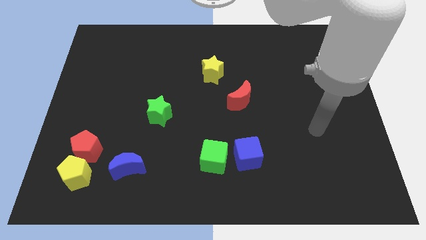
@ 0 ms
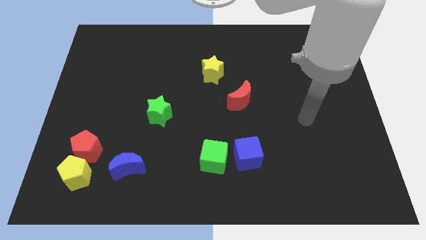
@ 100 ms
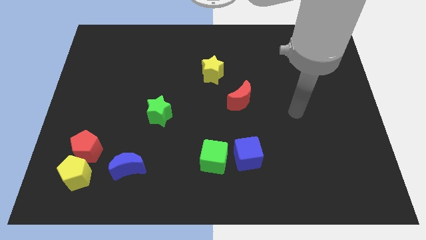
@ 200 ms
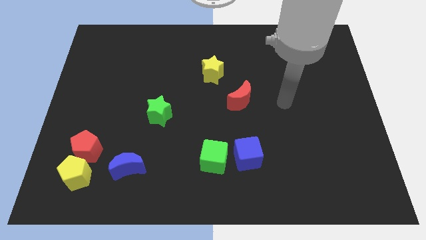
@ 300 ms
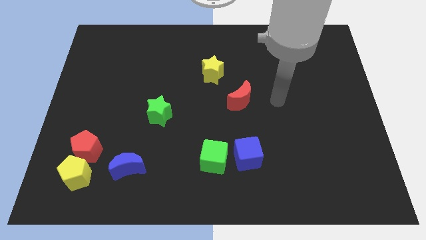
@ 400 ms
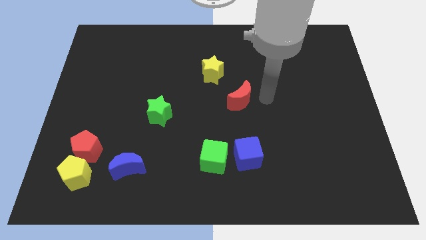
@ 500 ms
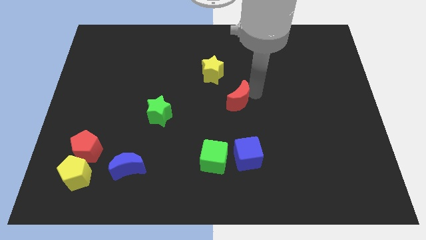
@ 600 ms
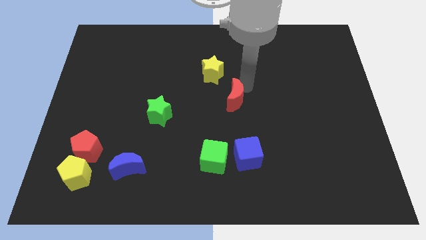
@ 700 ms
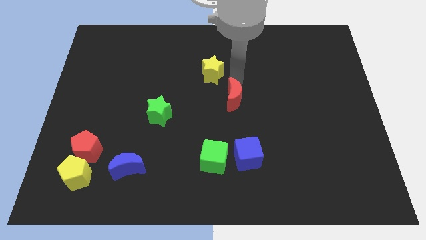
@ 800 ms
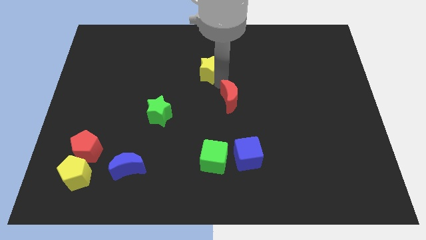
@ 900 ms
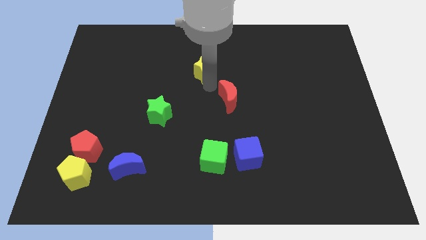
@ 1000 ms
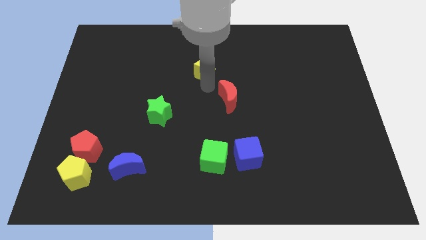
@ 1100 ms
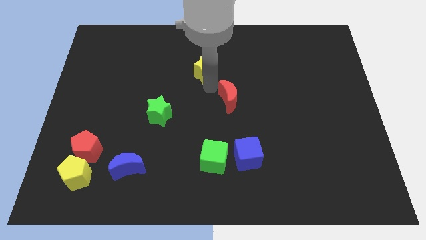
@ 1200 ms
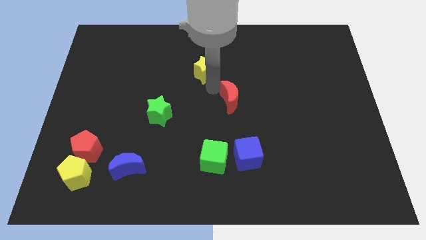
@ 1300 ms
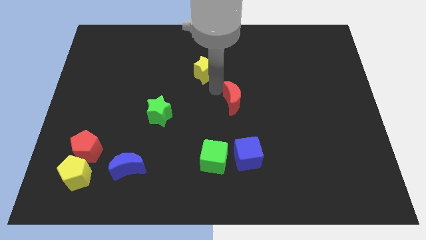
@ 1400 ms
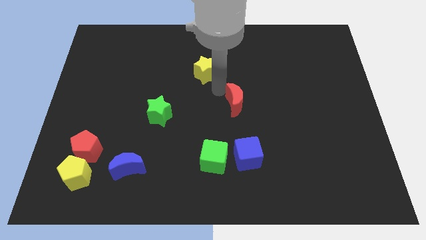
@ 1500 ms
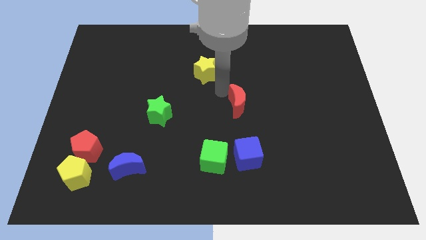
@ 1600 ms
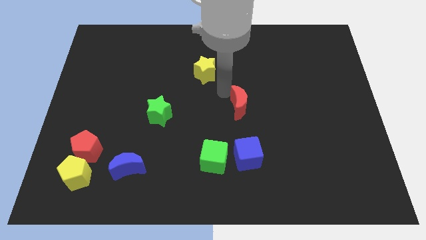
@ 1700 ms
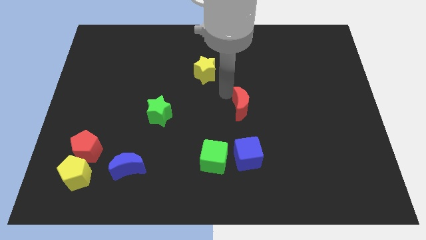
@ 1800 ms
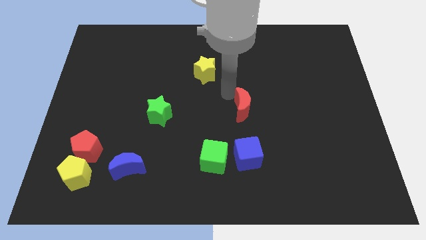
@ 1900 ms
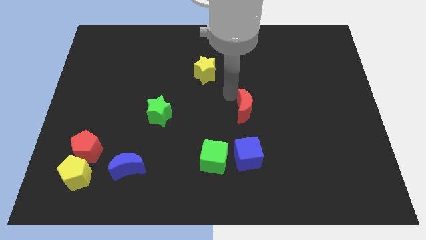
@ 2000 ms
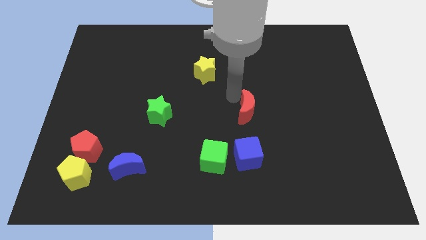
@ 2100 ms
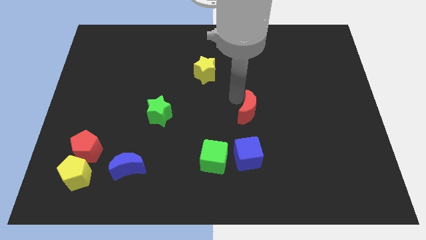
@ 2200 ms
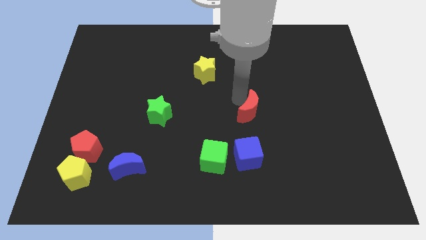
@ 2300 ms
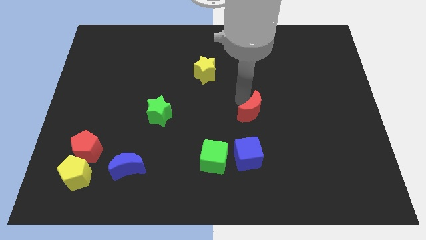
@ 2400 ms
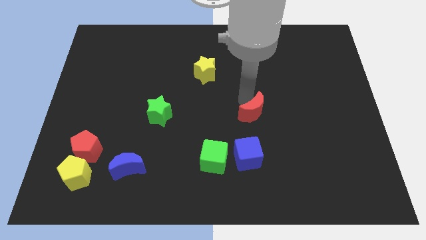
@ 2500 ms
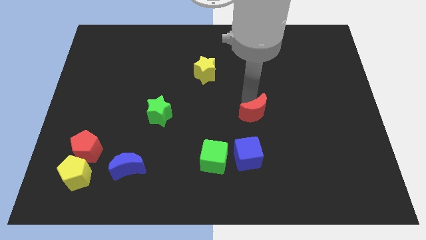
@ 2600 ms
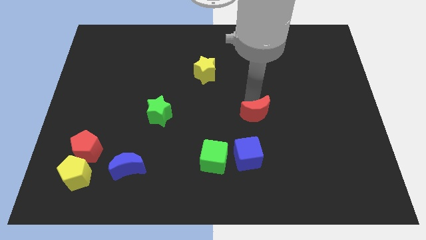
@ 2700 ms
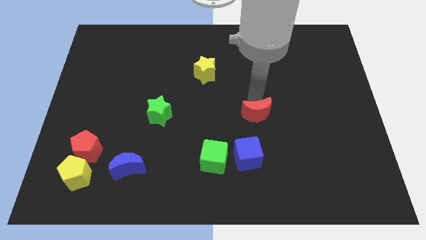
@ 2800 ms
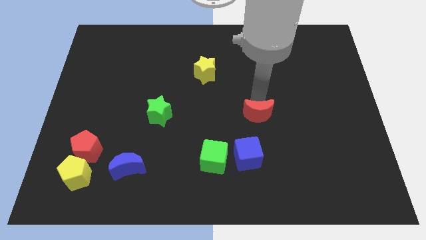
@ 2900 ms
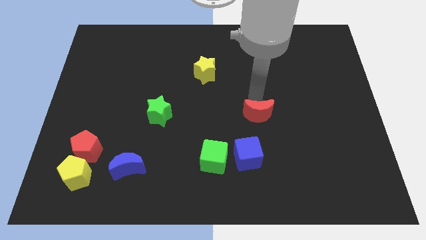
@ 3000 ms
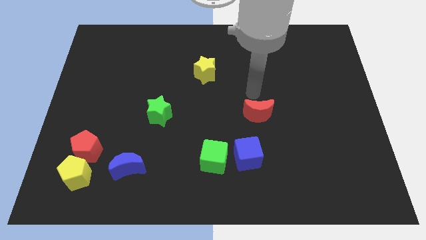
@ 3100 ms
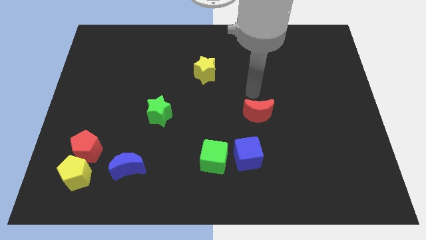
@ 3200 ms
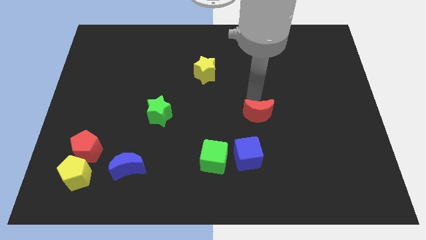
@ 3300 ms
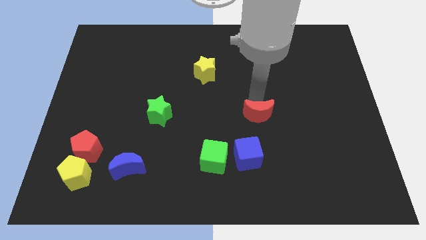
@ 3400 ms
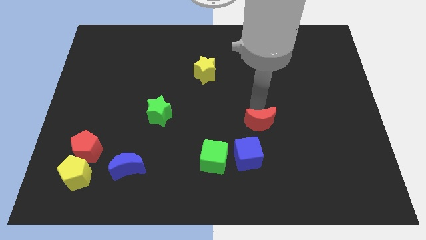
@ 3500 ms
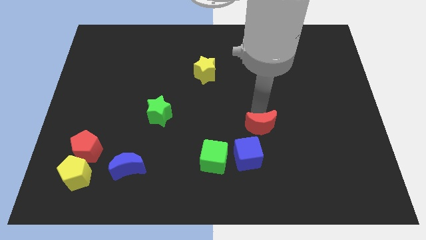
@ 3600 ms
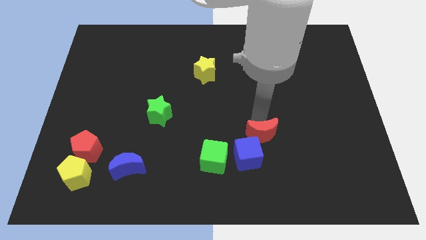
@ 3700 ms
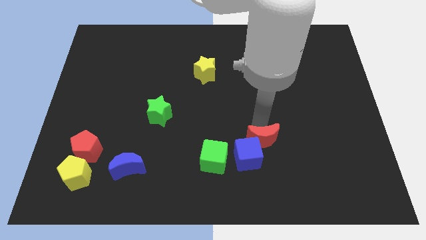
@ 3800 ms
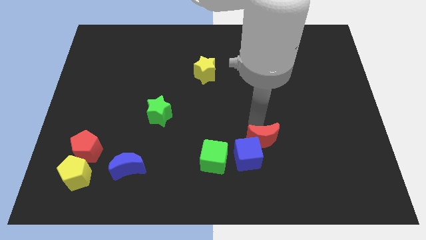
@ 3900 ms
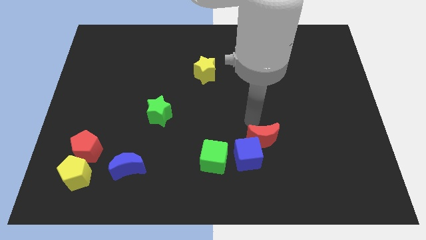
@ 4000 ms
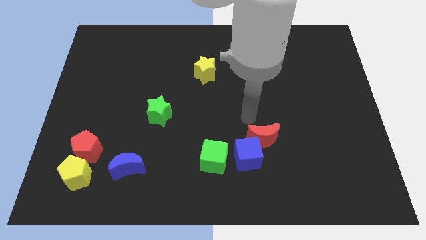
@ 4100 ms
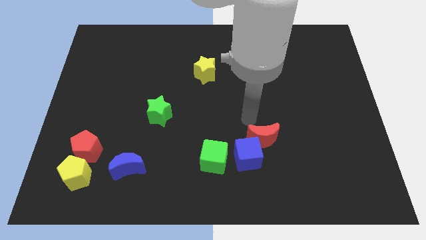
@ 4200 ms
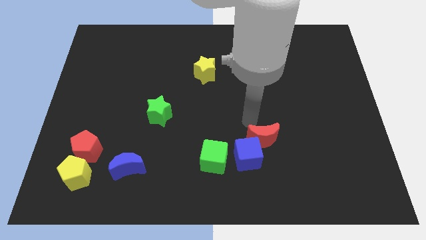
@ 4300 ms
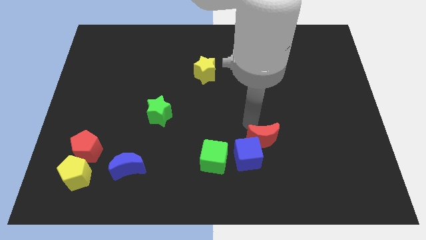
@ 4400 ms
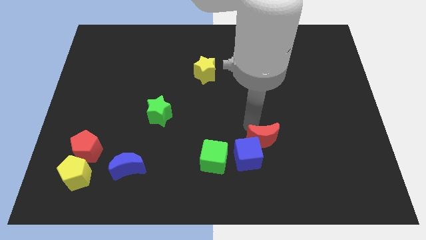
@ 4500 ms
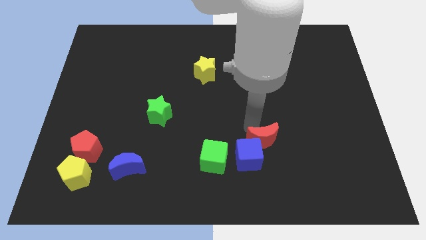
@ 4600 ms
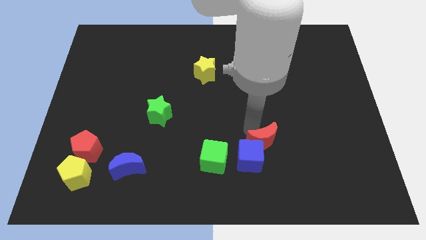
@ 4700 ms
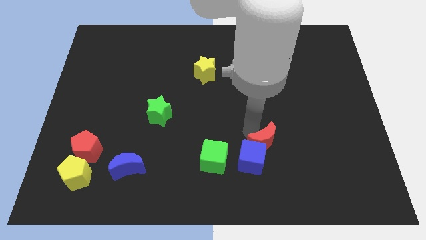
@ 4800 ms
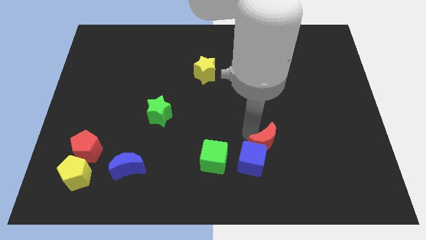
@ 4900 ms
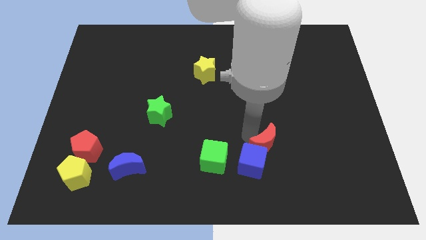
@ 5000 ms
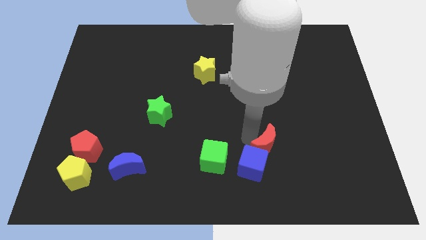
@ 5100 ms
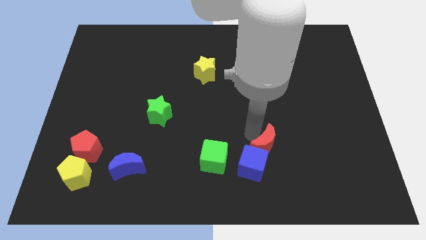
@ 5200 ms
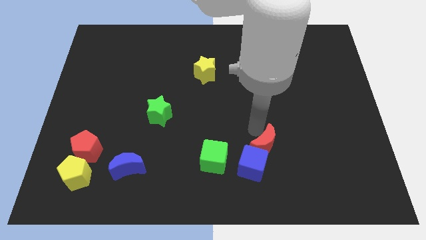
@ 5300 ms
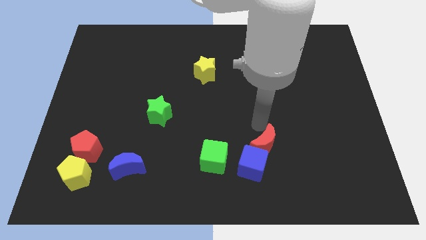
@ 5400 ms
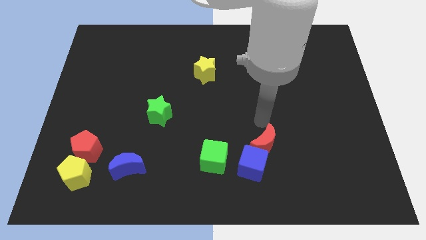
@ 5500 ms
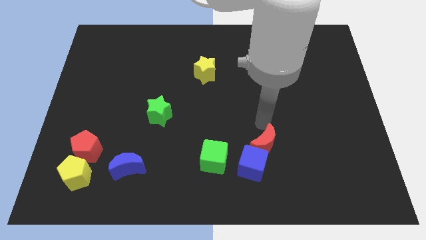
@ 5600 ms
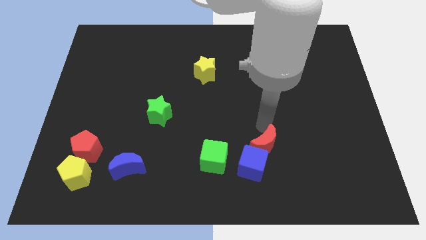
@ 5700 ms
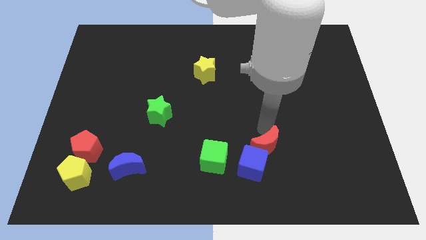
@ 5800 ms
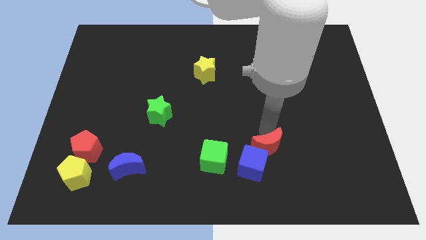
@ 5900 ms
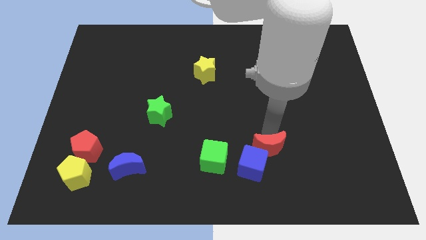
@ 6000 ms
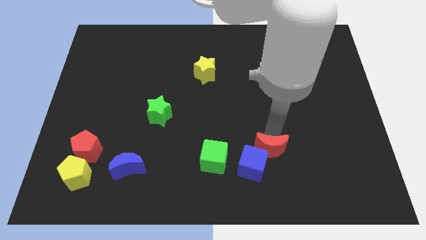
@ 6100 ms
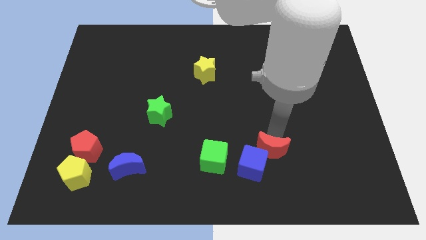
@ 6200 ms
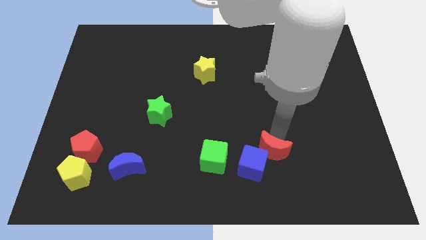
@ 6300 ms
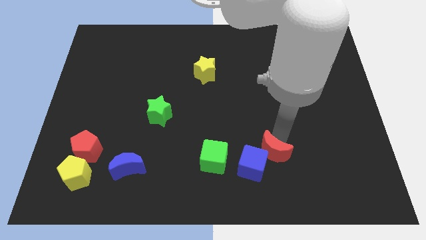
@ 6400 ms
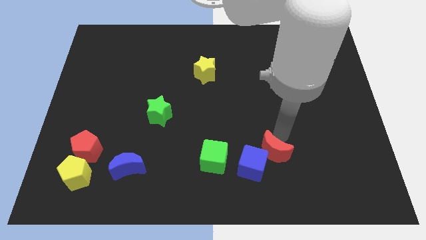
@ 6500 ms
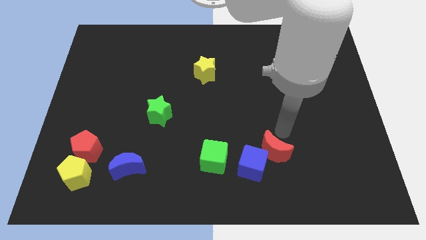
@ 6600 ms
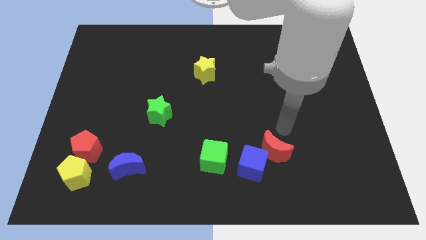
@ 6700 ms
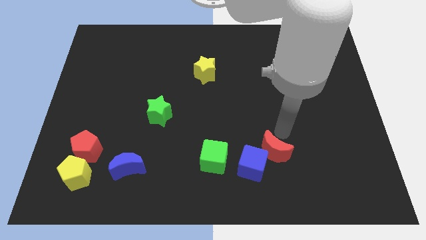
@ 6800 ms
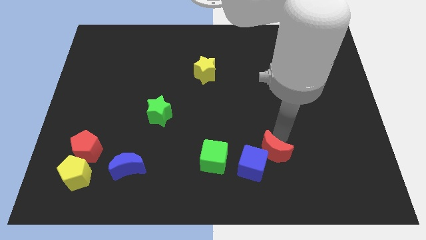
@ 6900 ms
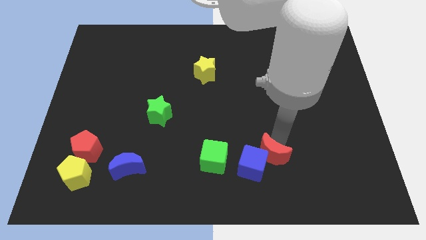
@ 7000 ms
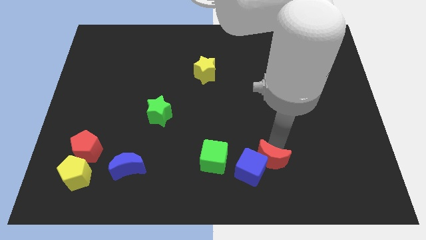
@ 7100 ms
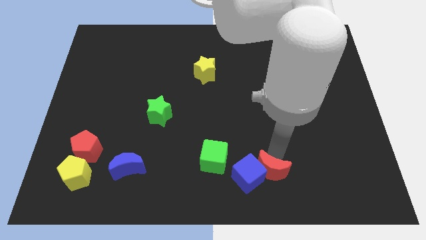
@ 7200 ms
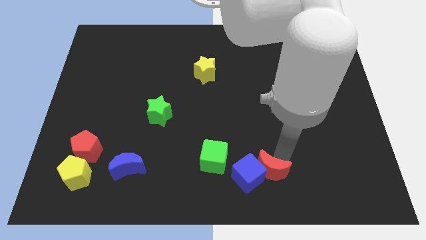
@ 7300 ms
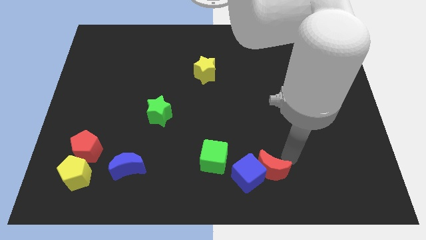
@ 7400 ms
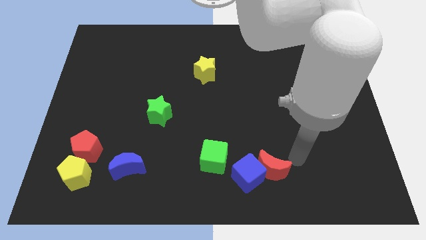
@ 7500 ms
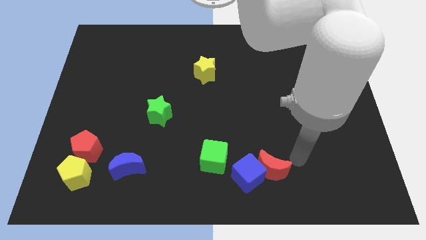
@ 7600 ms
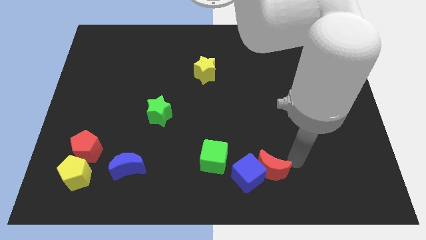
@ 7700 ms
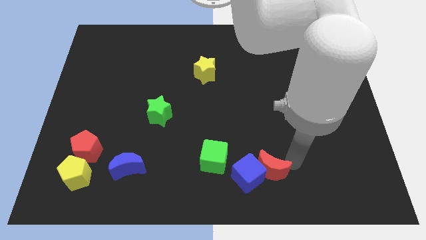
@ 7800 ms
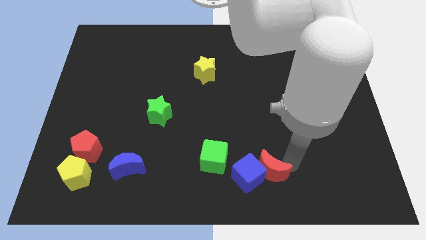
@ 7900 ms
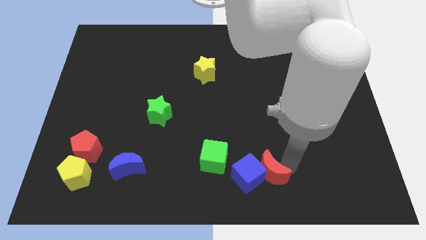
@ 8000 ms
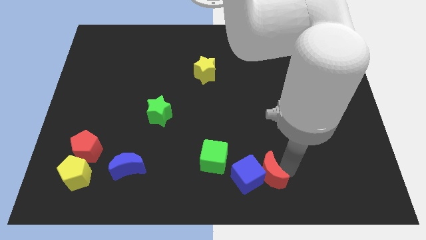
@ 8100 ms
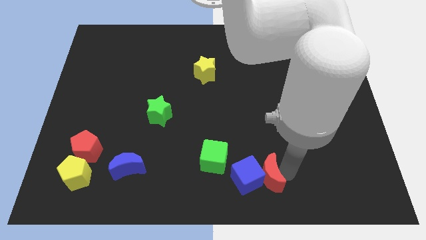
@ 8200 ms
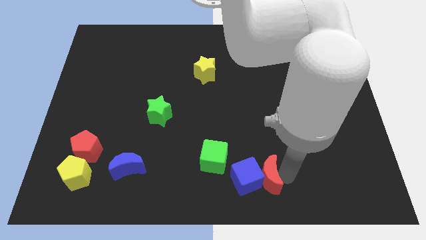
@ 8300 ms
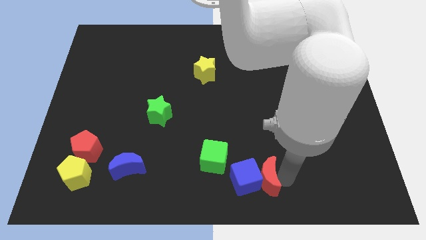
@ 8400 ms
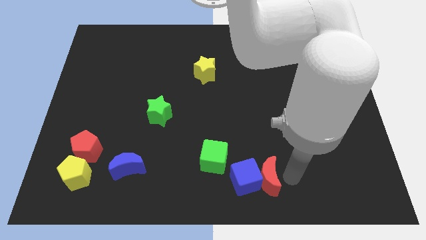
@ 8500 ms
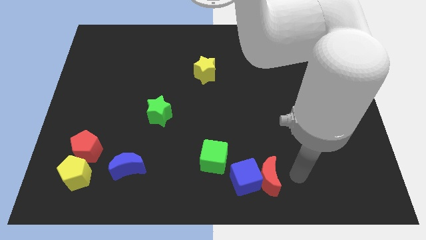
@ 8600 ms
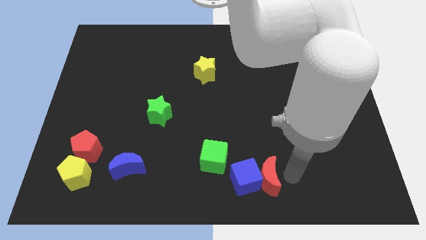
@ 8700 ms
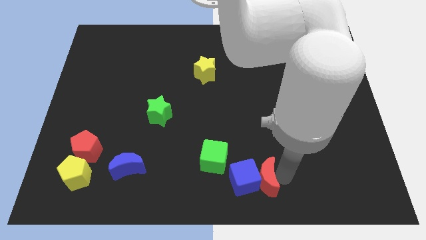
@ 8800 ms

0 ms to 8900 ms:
slide the red moon diagonally down and to the right of the green cube
